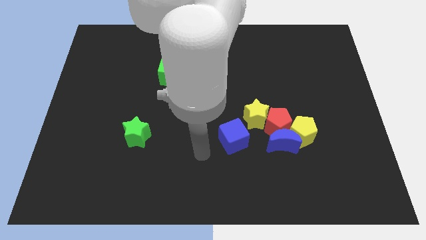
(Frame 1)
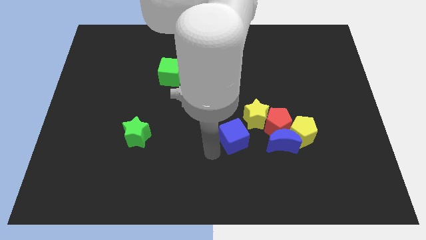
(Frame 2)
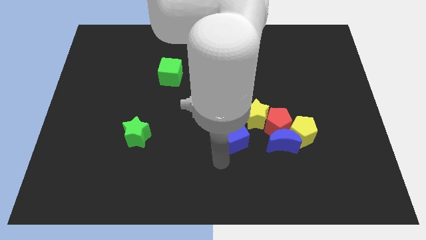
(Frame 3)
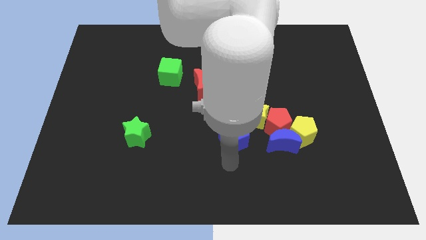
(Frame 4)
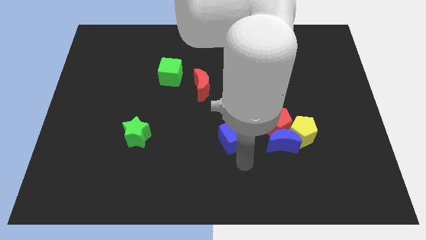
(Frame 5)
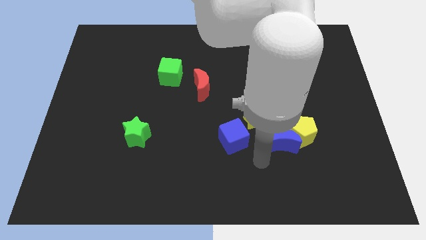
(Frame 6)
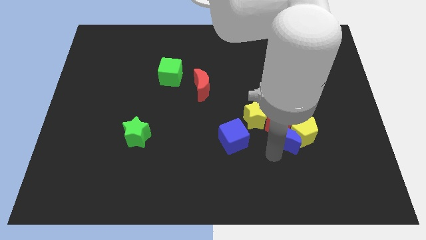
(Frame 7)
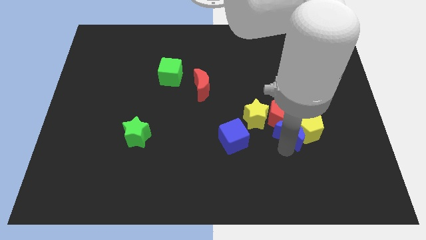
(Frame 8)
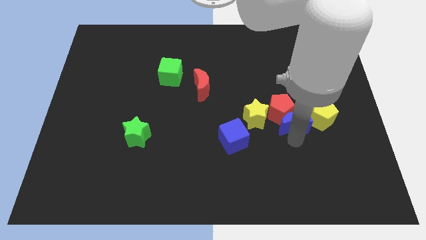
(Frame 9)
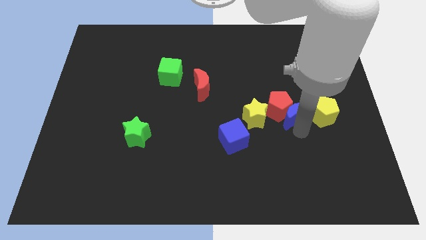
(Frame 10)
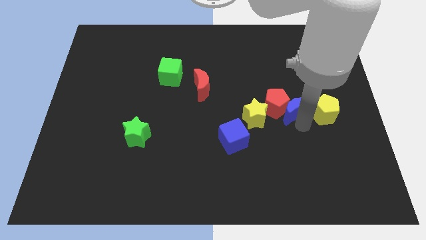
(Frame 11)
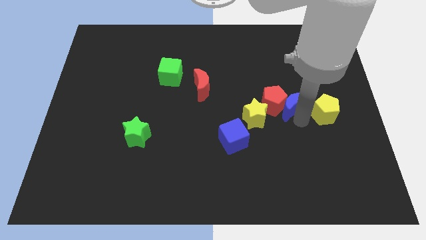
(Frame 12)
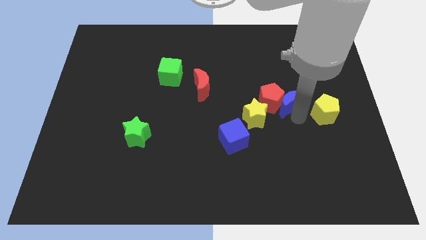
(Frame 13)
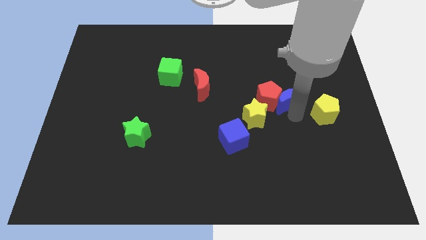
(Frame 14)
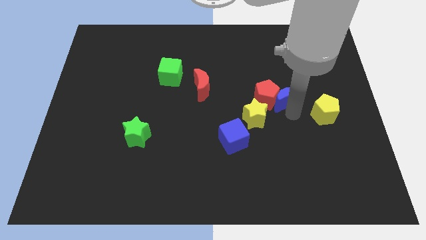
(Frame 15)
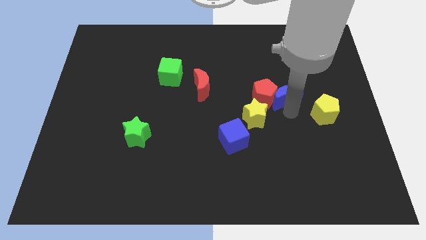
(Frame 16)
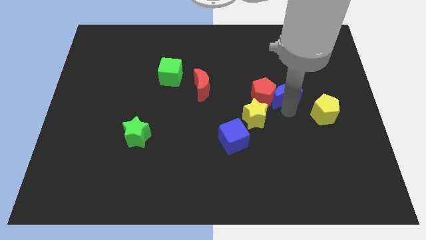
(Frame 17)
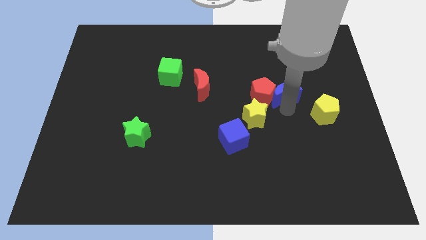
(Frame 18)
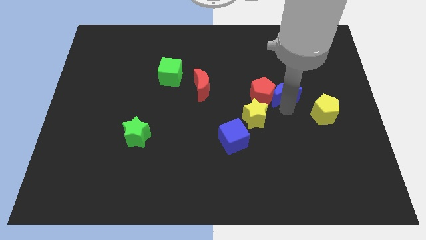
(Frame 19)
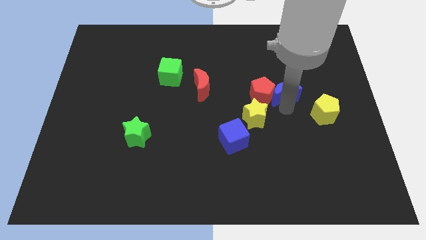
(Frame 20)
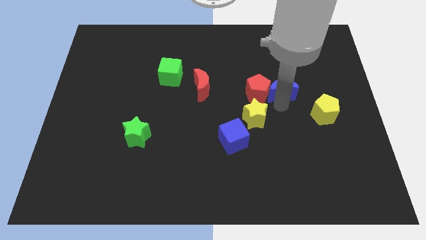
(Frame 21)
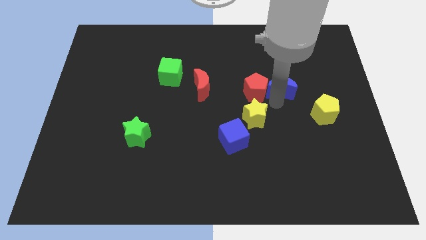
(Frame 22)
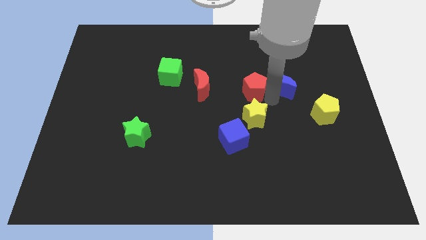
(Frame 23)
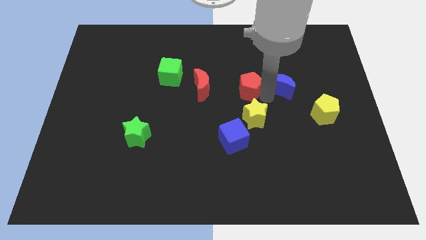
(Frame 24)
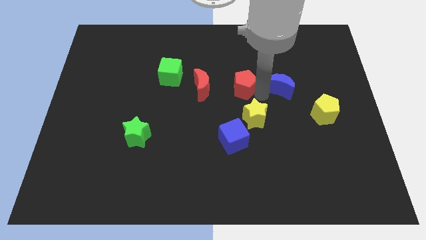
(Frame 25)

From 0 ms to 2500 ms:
move the red pentagon away from the blue moon, yellow star, and yellow pentagon

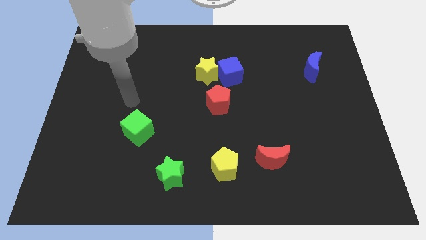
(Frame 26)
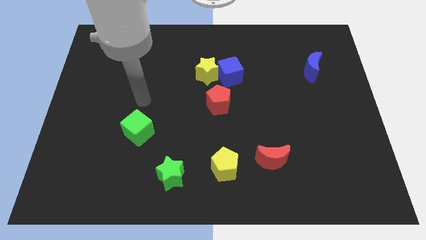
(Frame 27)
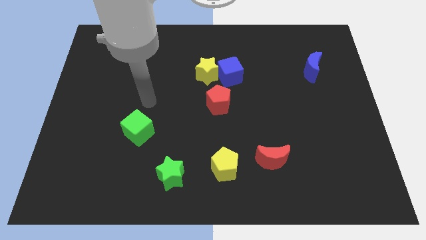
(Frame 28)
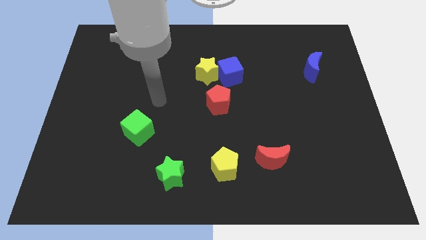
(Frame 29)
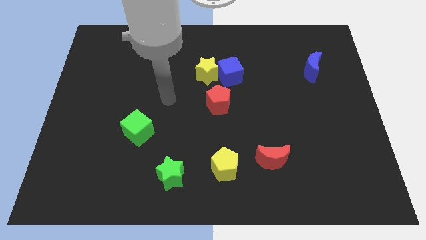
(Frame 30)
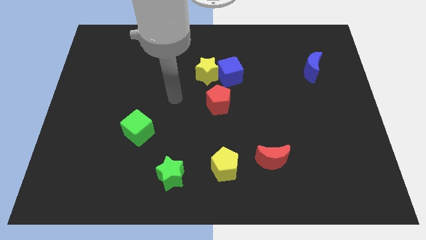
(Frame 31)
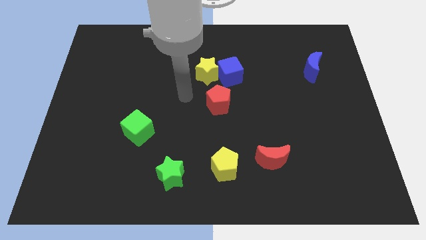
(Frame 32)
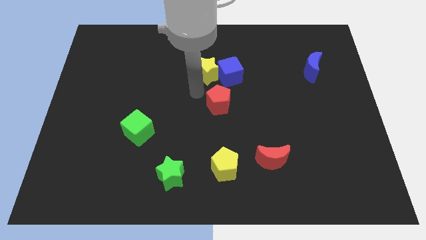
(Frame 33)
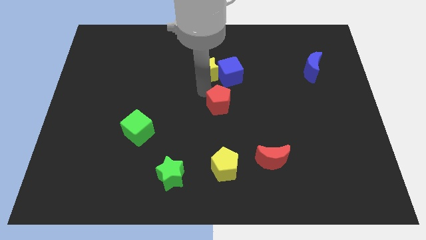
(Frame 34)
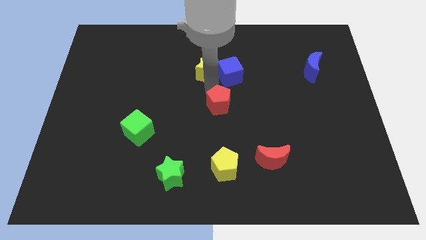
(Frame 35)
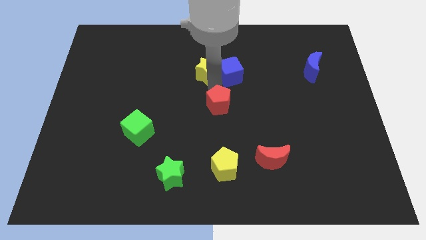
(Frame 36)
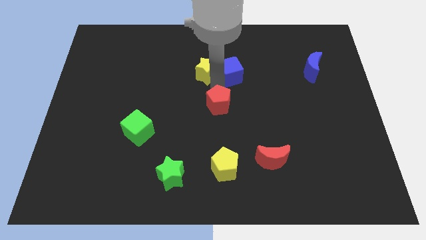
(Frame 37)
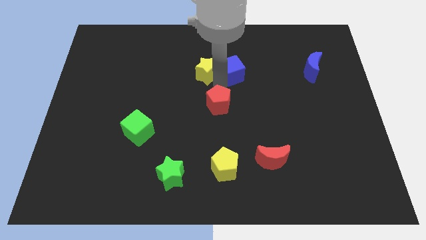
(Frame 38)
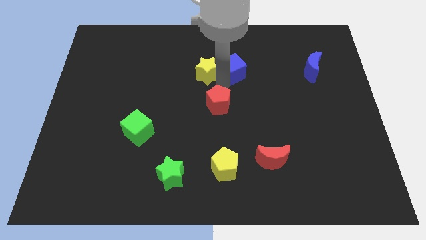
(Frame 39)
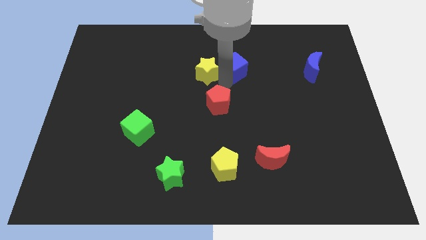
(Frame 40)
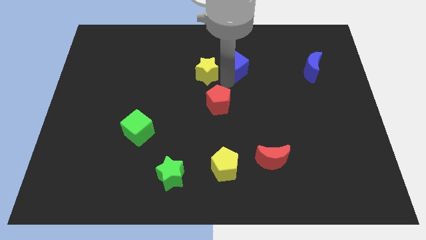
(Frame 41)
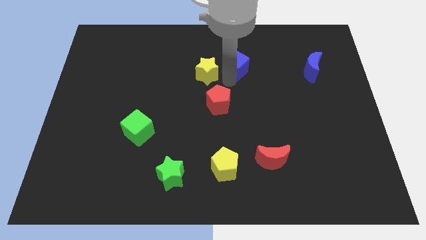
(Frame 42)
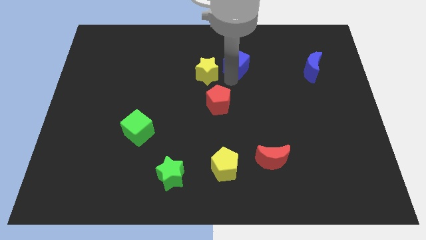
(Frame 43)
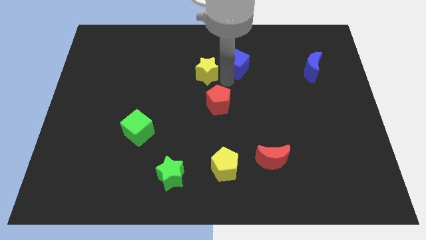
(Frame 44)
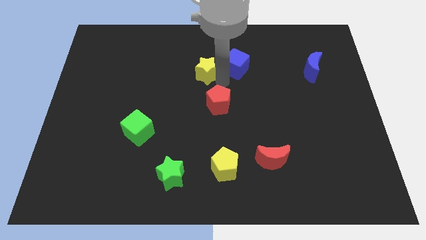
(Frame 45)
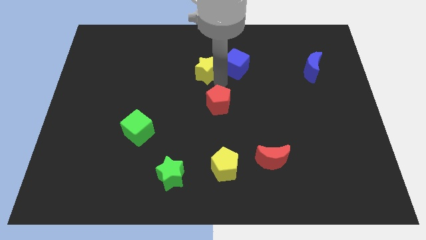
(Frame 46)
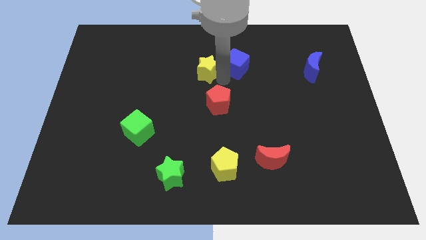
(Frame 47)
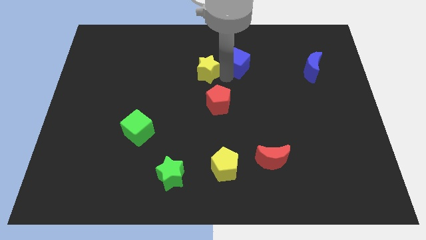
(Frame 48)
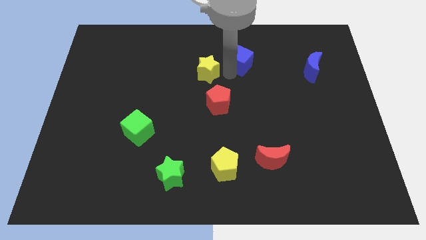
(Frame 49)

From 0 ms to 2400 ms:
separate the blue cube from the yellow star and red pentagon

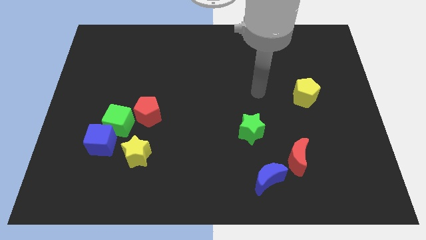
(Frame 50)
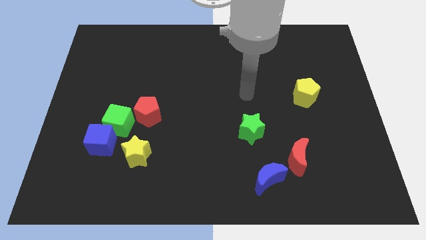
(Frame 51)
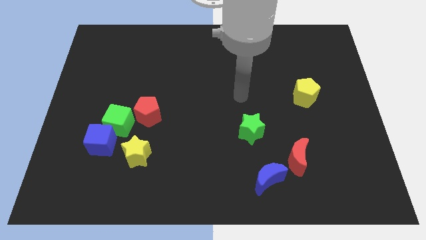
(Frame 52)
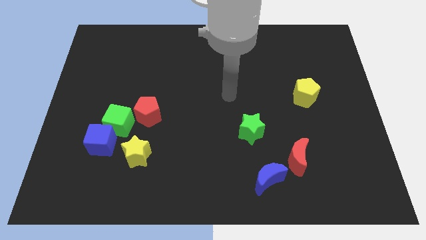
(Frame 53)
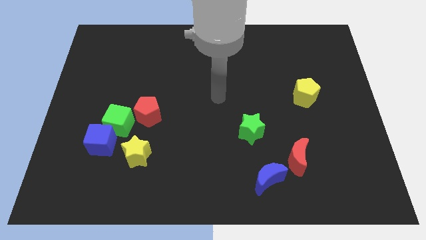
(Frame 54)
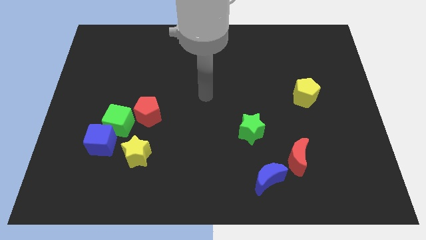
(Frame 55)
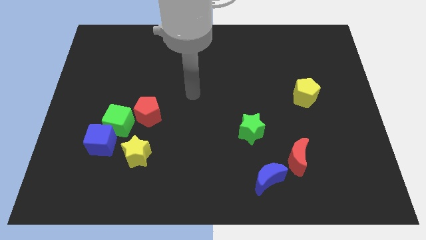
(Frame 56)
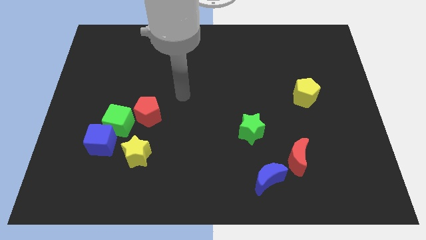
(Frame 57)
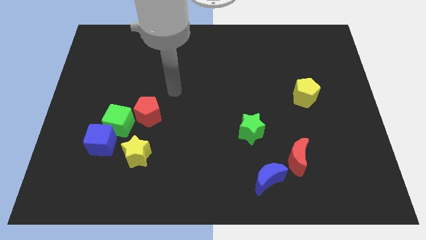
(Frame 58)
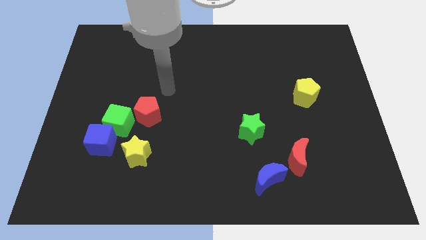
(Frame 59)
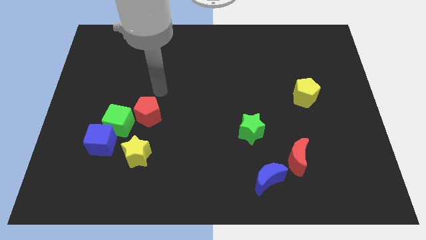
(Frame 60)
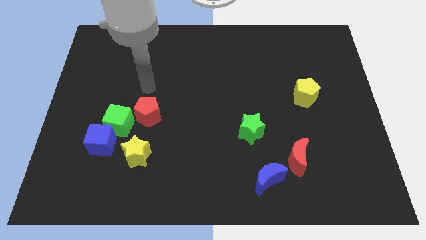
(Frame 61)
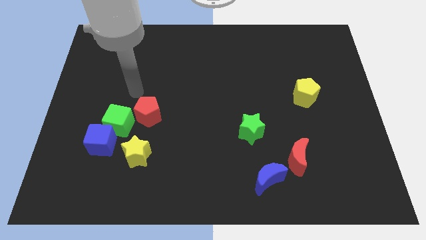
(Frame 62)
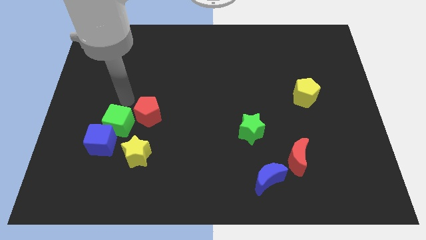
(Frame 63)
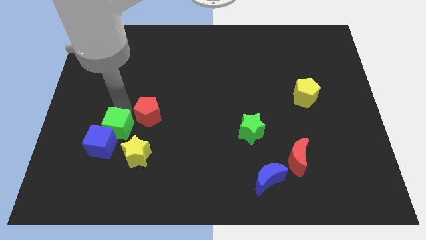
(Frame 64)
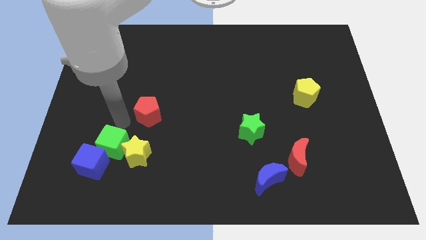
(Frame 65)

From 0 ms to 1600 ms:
move the red pentagon away from the green cube

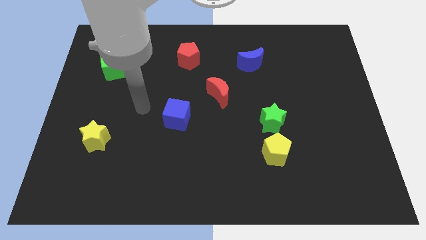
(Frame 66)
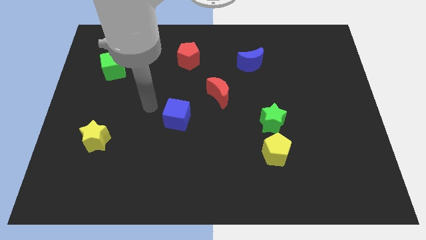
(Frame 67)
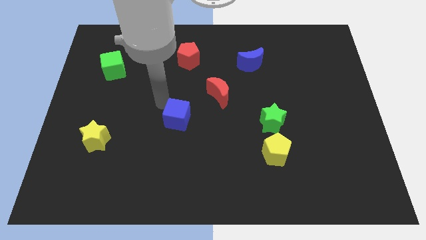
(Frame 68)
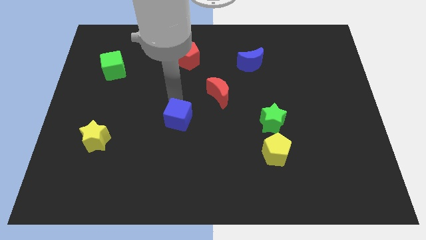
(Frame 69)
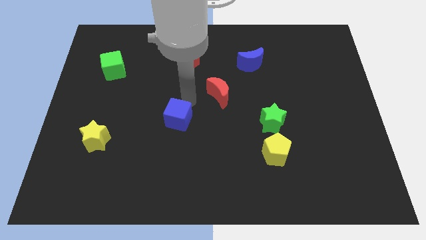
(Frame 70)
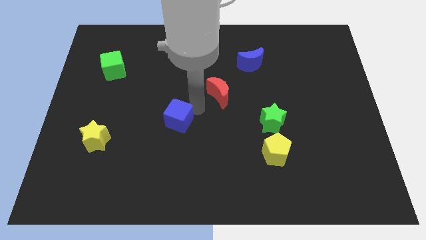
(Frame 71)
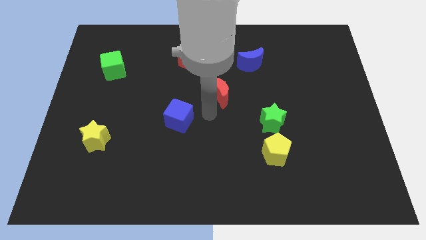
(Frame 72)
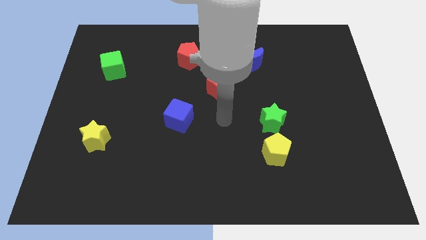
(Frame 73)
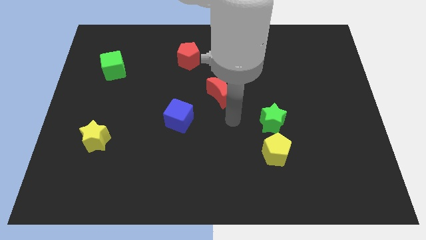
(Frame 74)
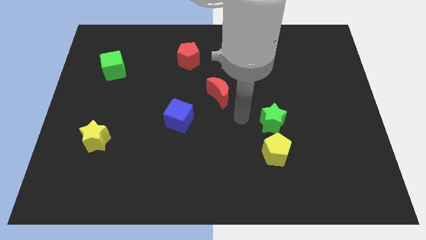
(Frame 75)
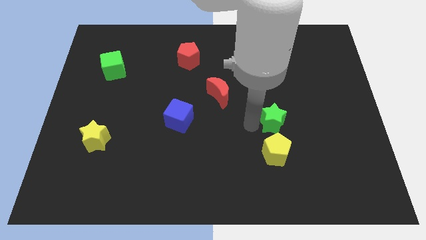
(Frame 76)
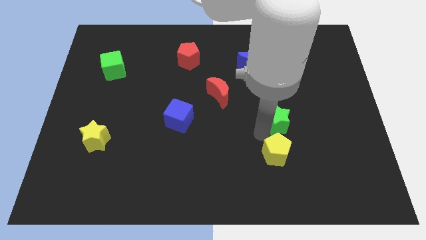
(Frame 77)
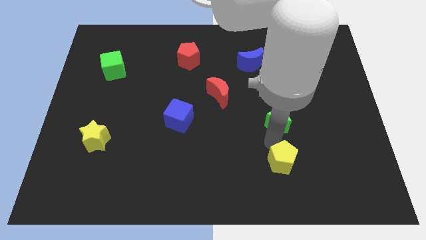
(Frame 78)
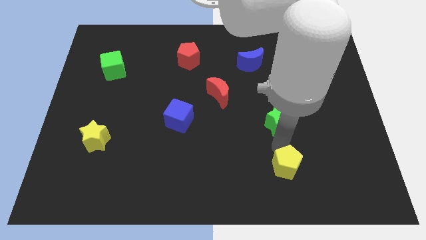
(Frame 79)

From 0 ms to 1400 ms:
separate the green star from the yellow pentagon

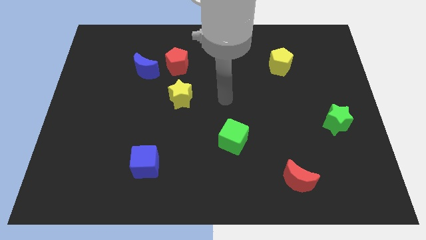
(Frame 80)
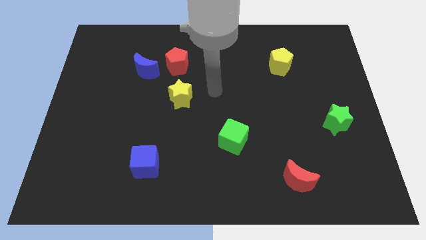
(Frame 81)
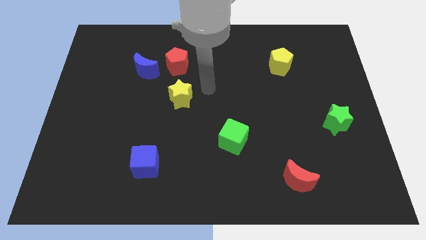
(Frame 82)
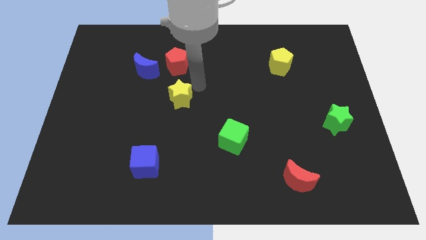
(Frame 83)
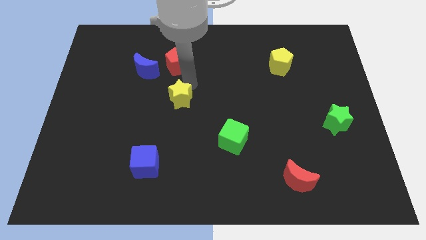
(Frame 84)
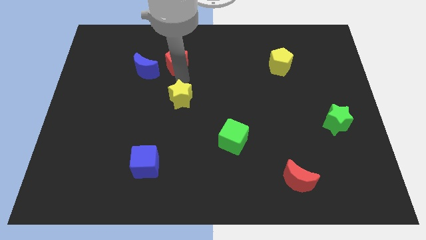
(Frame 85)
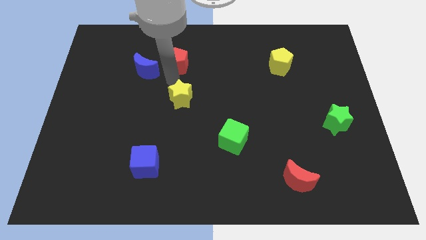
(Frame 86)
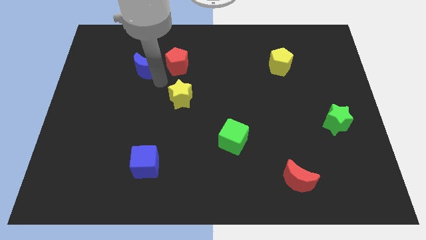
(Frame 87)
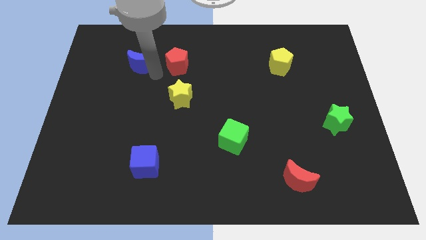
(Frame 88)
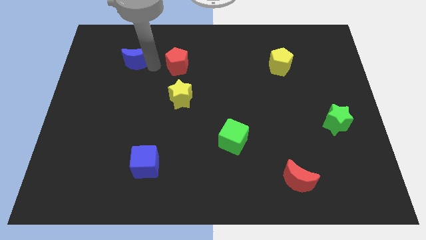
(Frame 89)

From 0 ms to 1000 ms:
separate the red pentagon from the blue moon

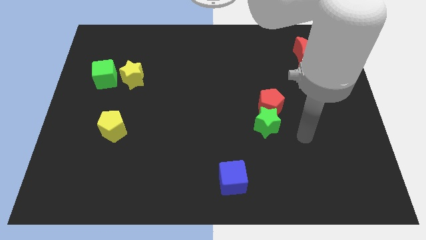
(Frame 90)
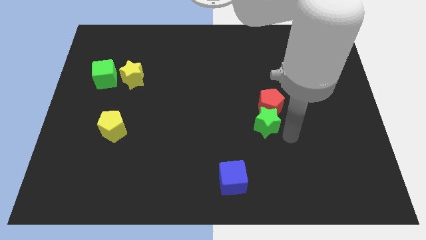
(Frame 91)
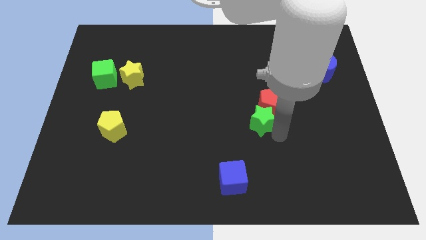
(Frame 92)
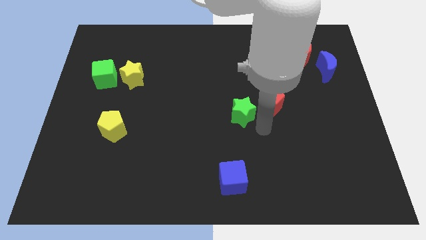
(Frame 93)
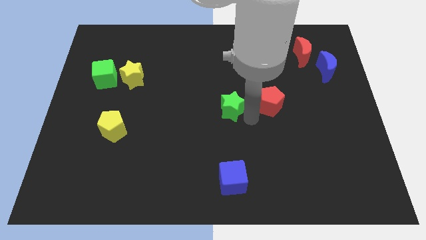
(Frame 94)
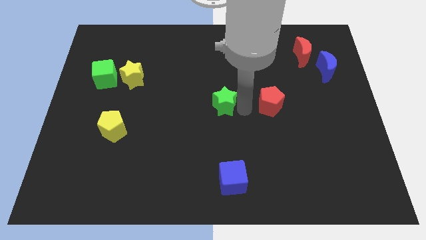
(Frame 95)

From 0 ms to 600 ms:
move the red pentagon away from the green star
